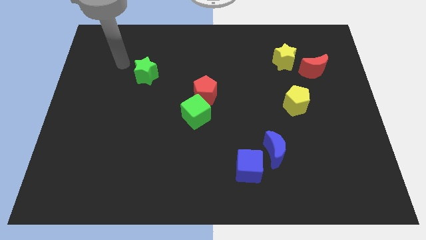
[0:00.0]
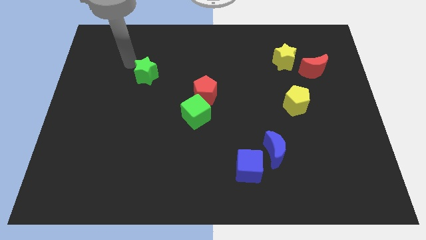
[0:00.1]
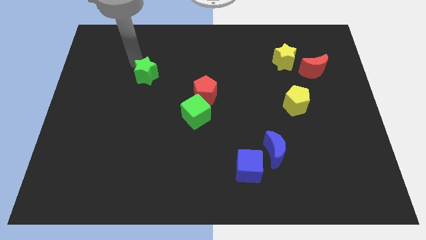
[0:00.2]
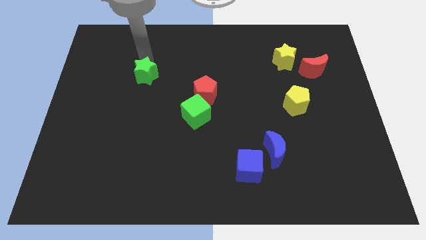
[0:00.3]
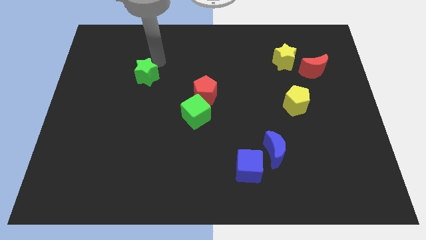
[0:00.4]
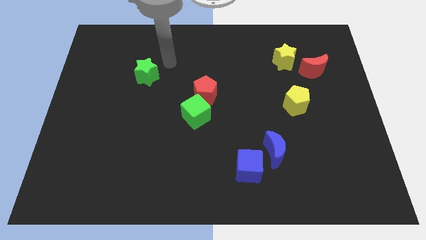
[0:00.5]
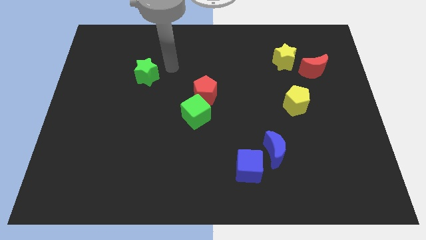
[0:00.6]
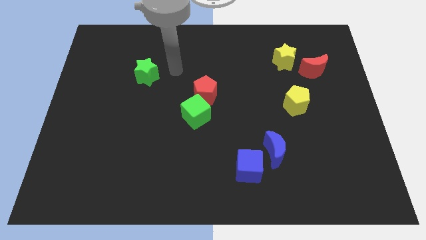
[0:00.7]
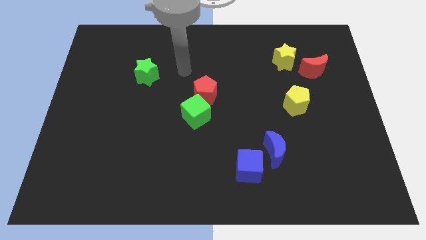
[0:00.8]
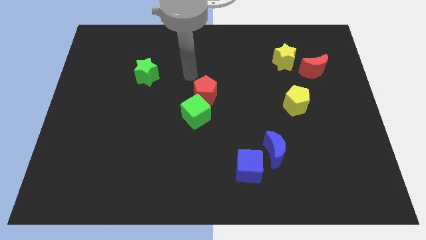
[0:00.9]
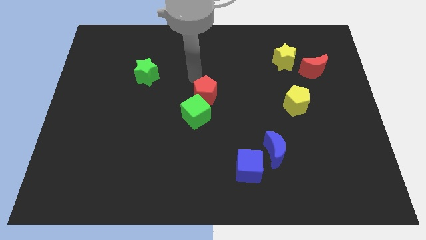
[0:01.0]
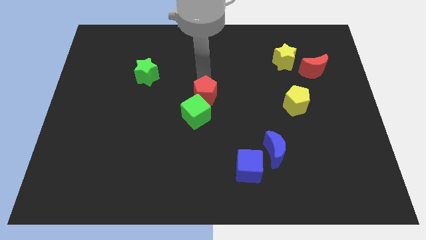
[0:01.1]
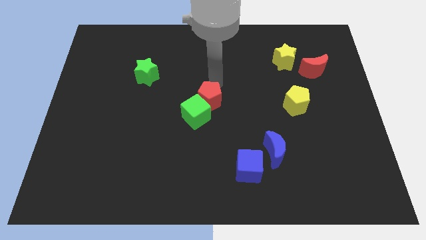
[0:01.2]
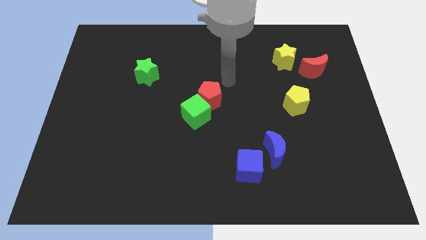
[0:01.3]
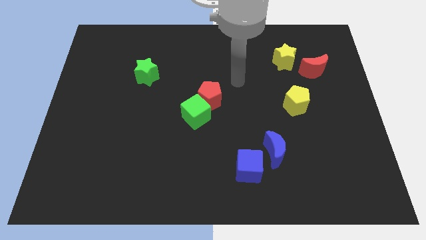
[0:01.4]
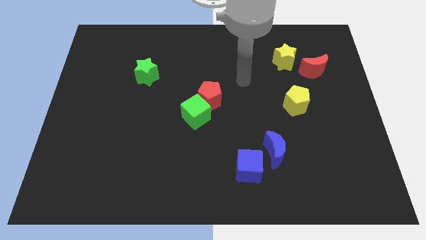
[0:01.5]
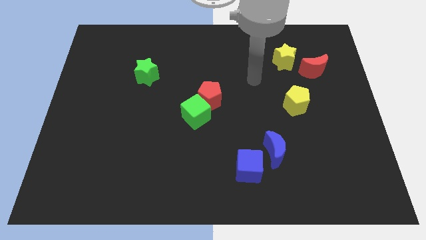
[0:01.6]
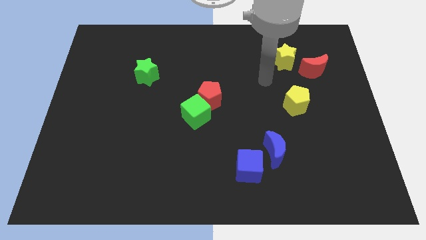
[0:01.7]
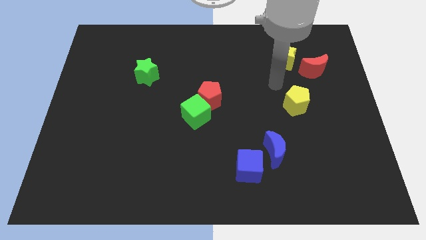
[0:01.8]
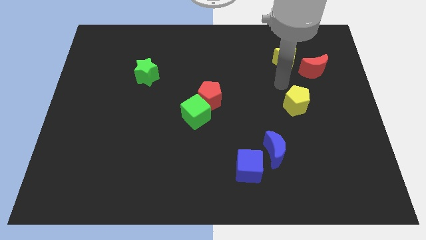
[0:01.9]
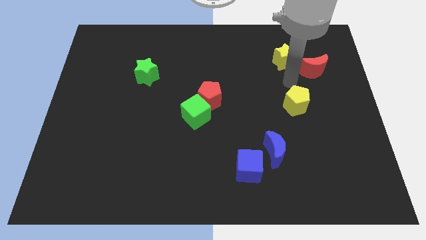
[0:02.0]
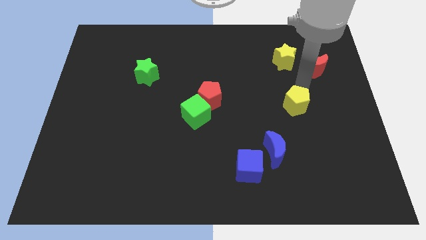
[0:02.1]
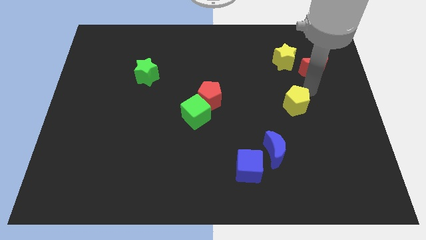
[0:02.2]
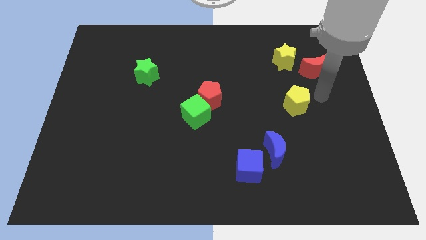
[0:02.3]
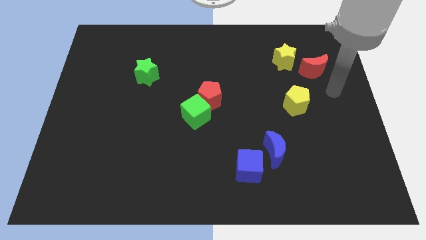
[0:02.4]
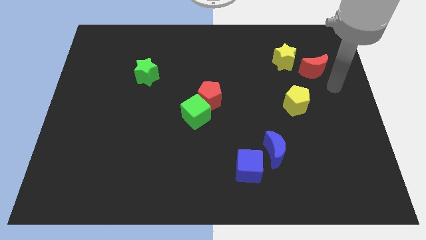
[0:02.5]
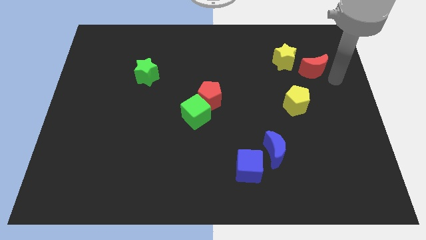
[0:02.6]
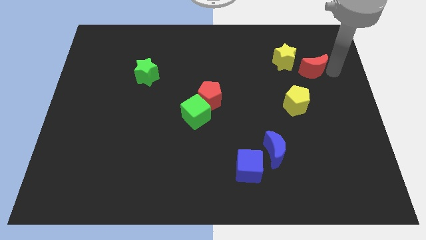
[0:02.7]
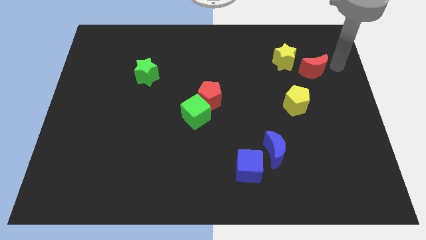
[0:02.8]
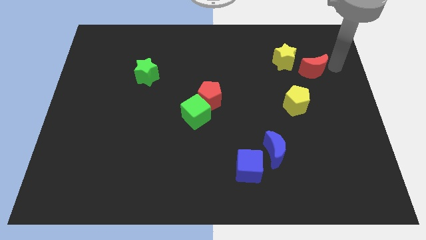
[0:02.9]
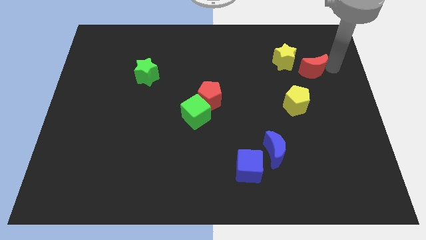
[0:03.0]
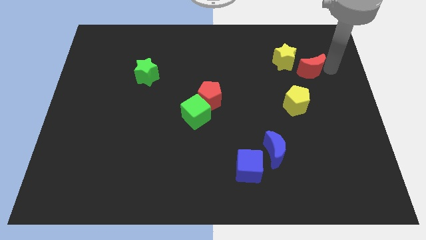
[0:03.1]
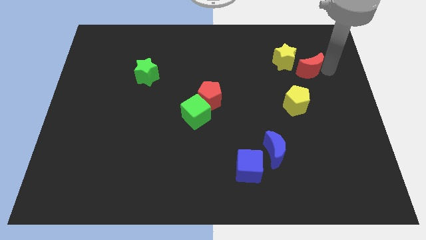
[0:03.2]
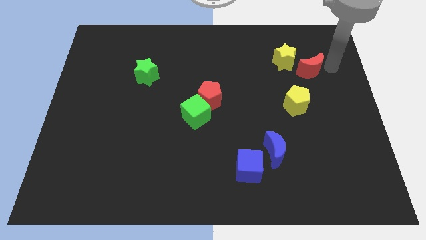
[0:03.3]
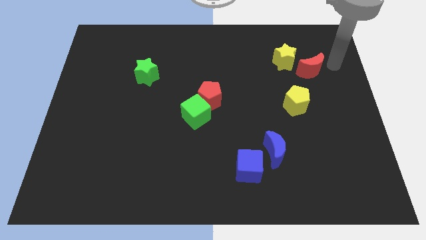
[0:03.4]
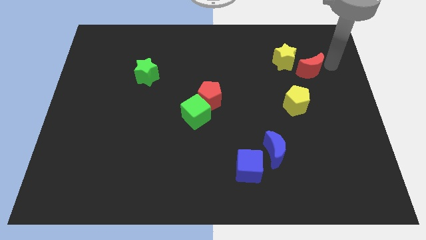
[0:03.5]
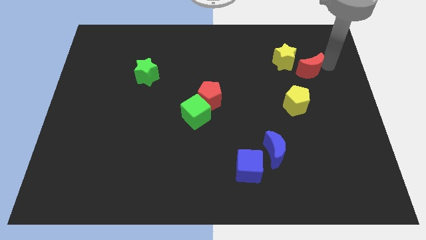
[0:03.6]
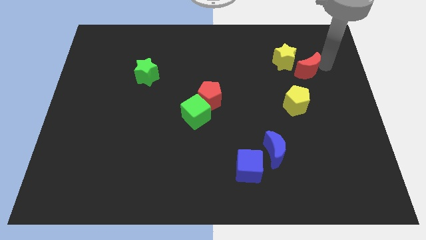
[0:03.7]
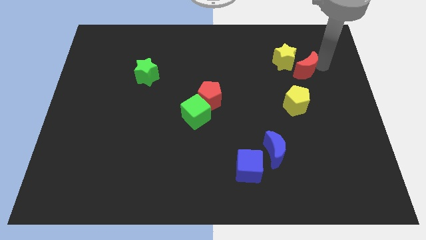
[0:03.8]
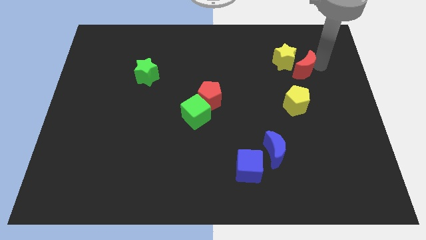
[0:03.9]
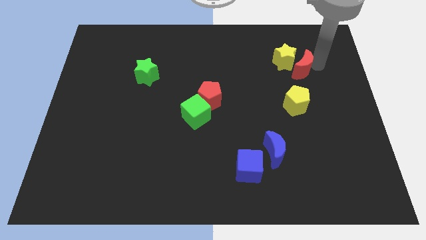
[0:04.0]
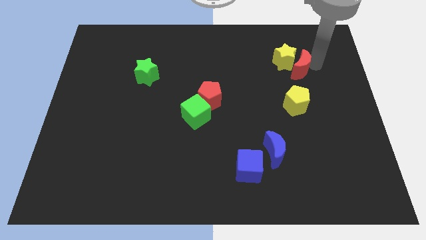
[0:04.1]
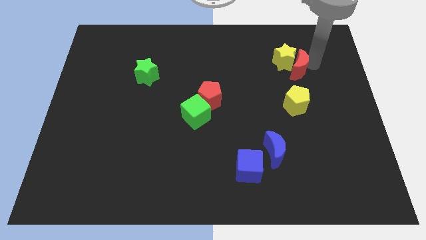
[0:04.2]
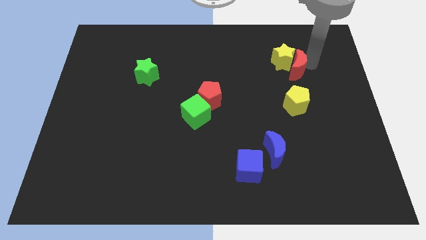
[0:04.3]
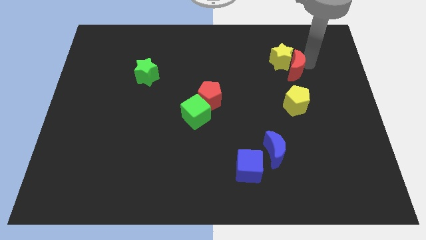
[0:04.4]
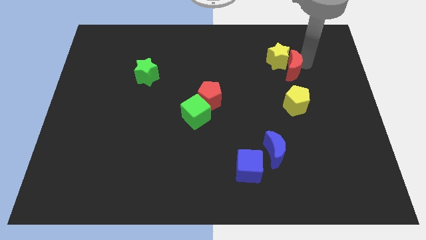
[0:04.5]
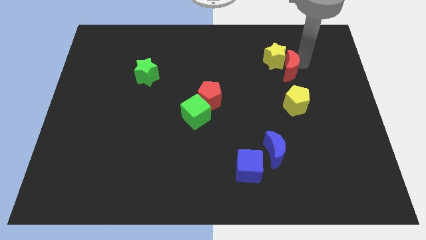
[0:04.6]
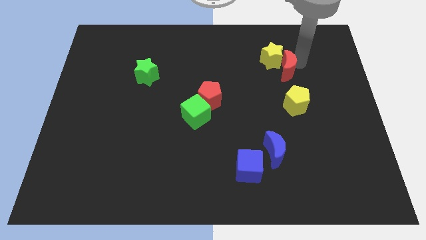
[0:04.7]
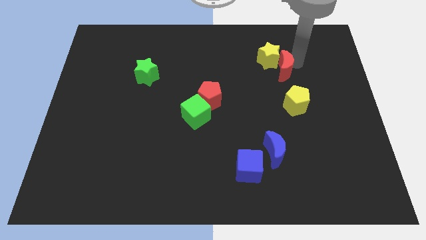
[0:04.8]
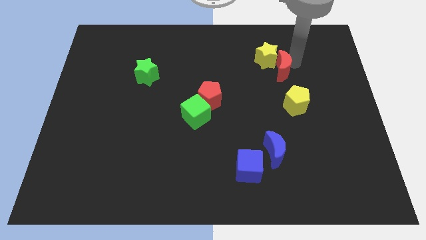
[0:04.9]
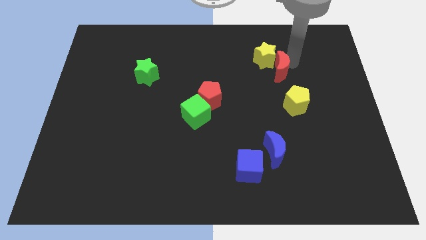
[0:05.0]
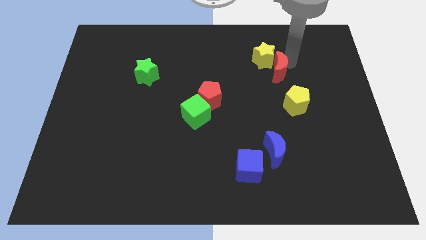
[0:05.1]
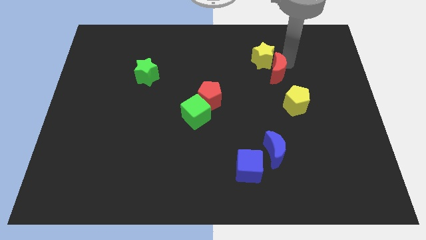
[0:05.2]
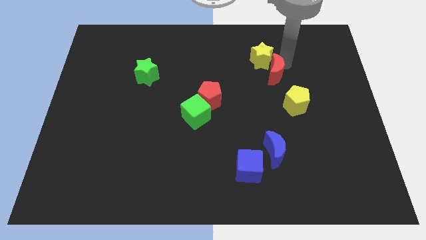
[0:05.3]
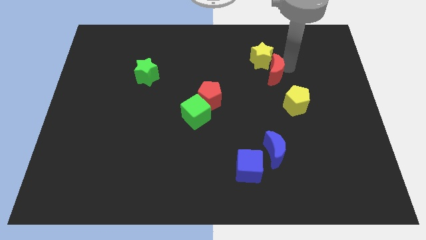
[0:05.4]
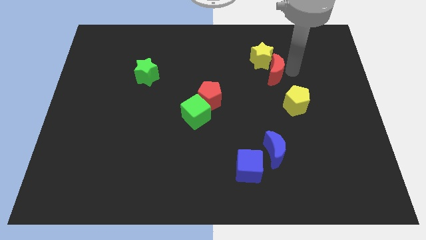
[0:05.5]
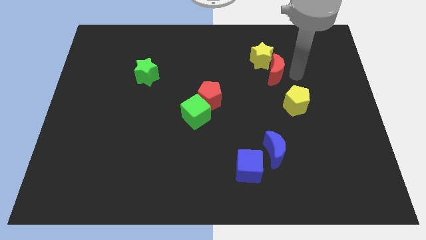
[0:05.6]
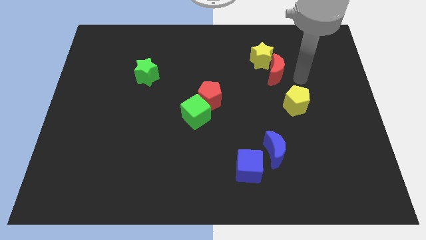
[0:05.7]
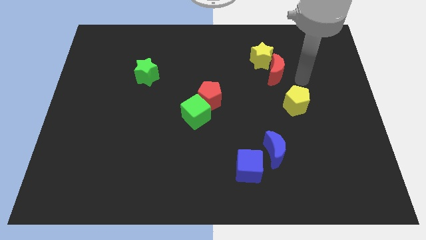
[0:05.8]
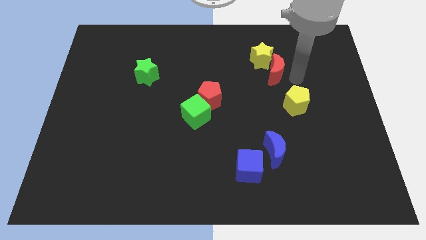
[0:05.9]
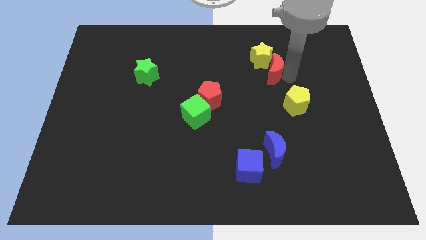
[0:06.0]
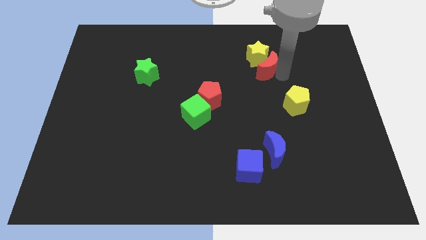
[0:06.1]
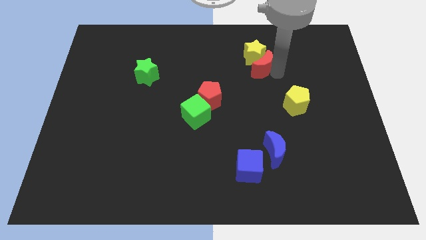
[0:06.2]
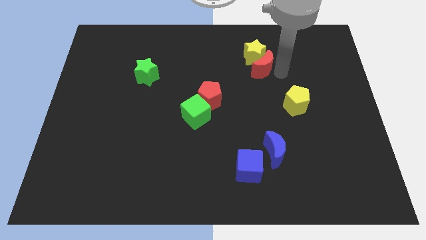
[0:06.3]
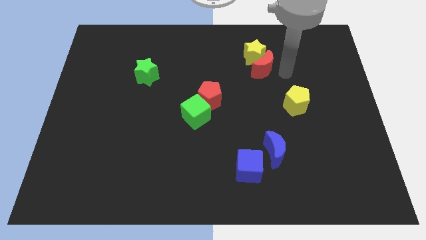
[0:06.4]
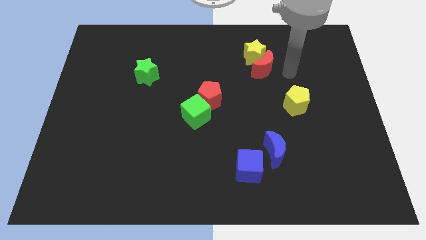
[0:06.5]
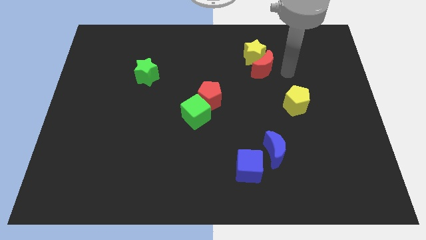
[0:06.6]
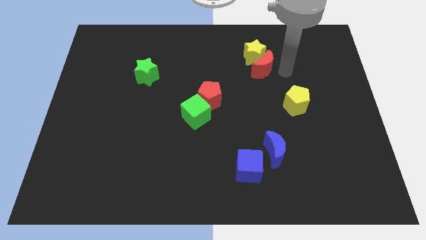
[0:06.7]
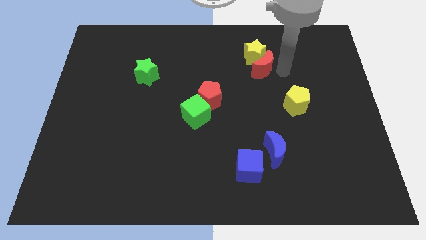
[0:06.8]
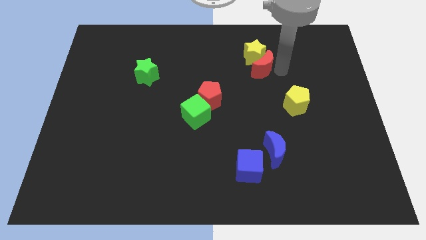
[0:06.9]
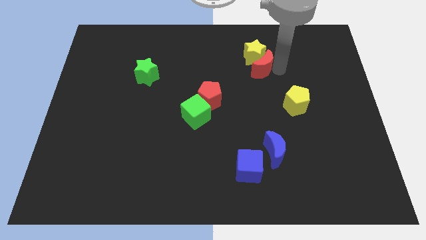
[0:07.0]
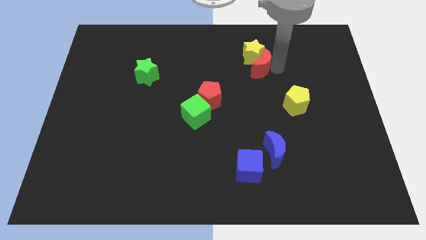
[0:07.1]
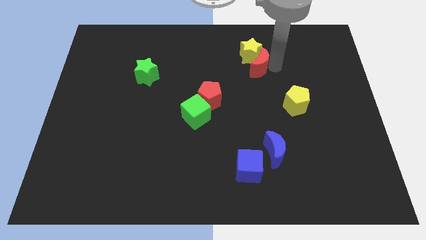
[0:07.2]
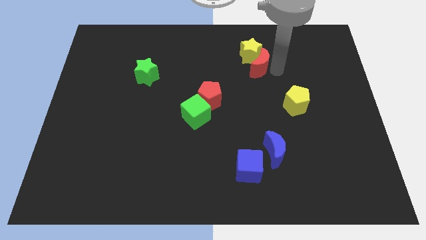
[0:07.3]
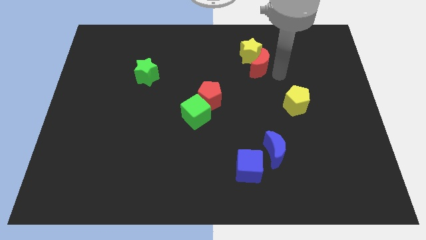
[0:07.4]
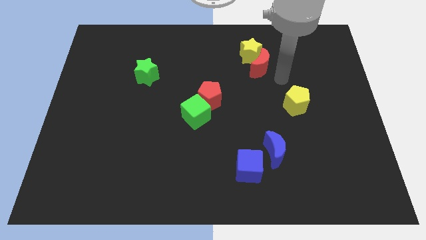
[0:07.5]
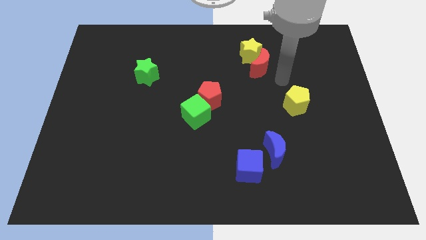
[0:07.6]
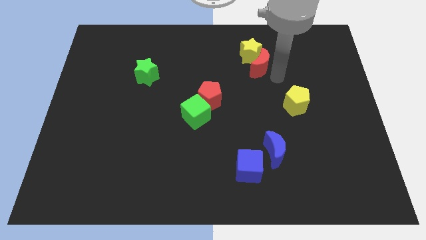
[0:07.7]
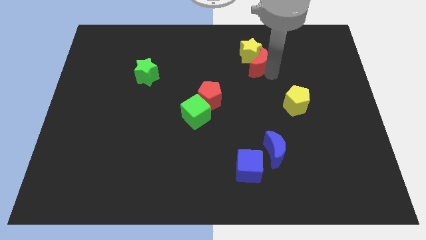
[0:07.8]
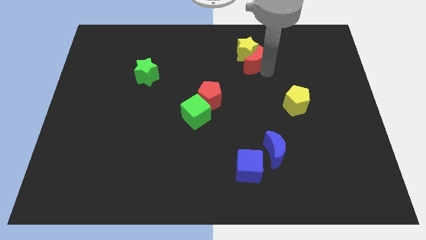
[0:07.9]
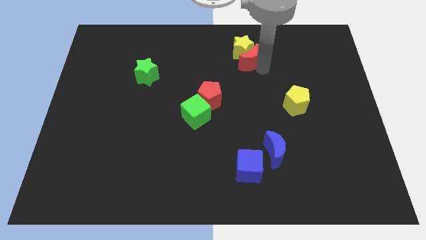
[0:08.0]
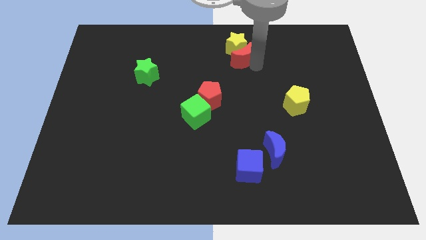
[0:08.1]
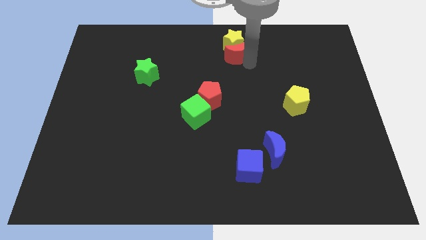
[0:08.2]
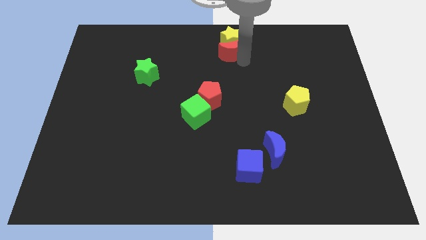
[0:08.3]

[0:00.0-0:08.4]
push the red moon to the towards your base
